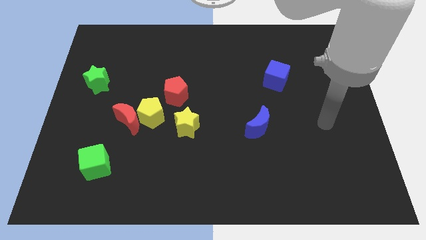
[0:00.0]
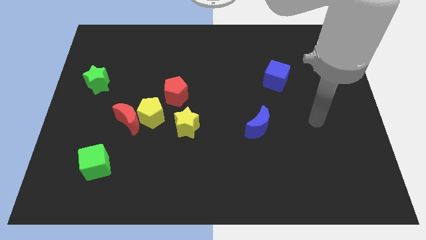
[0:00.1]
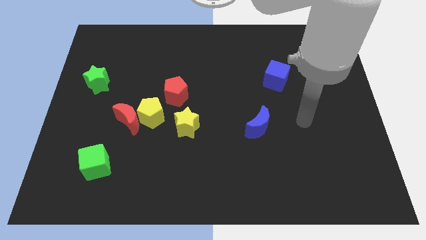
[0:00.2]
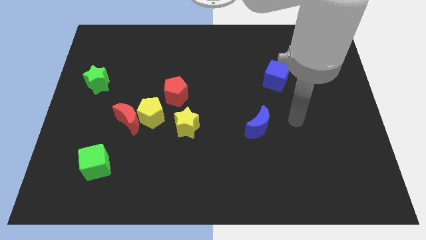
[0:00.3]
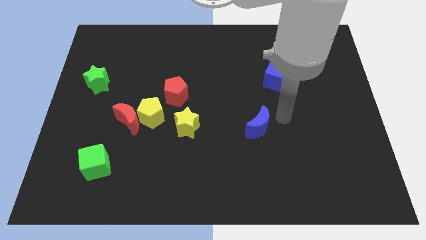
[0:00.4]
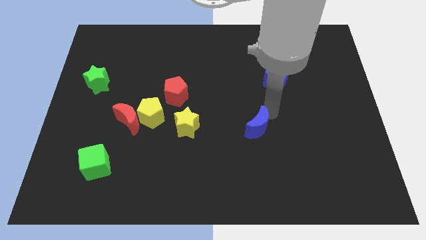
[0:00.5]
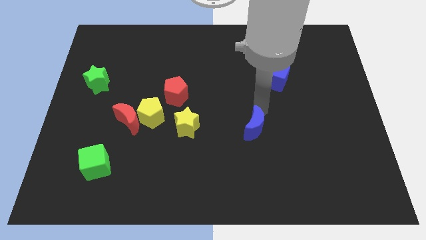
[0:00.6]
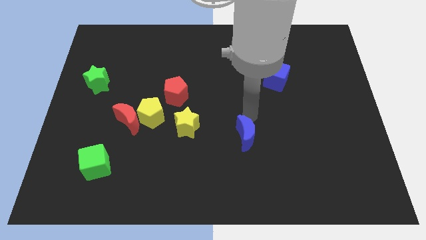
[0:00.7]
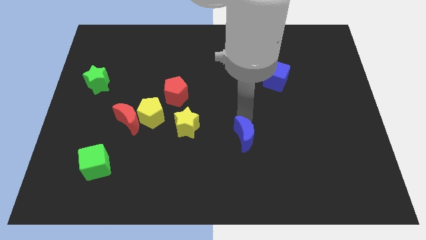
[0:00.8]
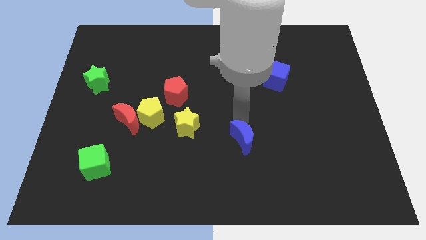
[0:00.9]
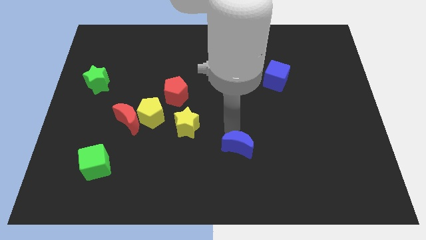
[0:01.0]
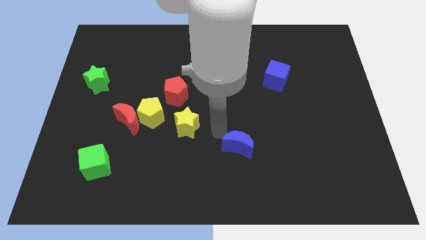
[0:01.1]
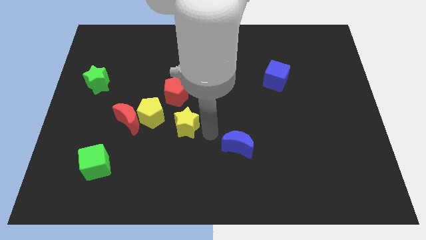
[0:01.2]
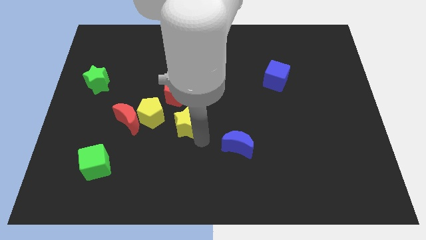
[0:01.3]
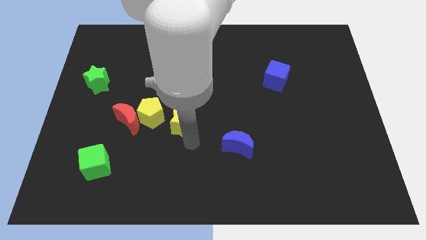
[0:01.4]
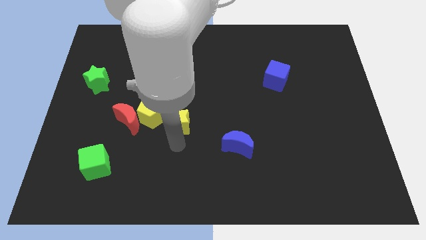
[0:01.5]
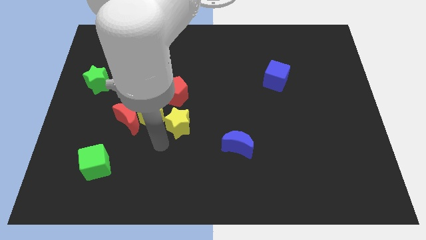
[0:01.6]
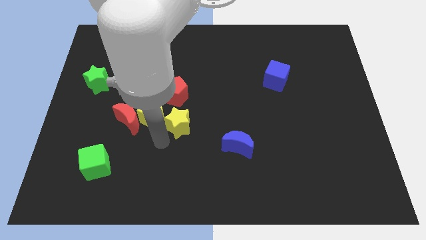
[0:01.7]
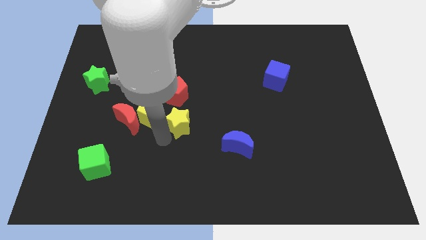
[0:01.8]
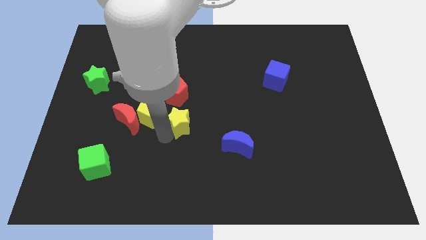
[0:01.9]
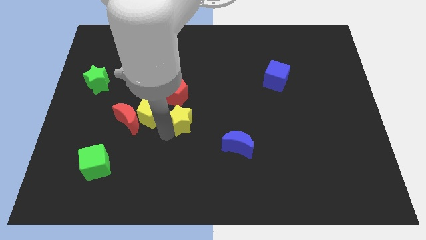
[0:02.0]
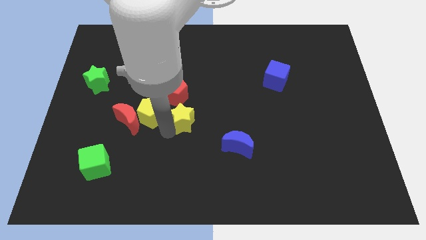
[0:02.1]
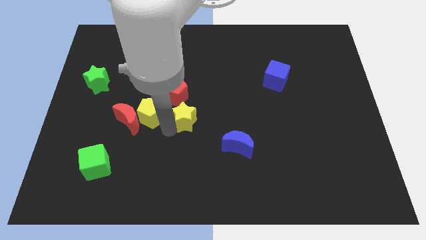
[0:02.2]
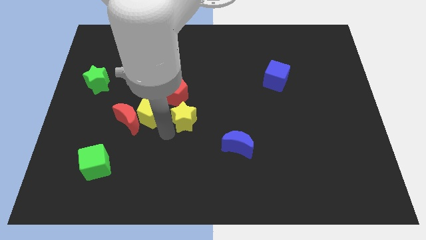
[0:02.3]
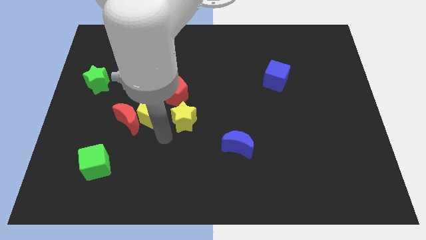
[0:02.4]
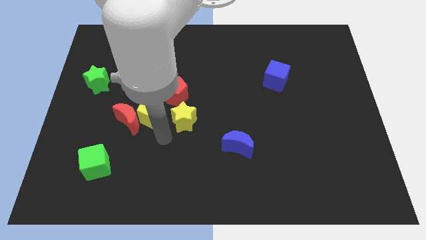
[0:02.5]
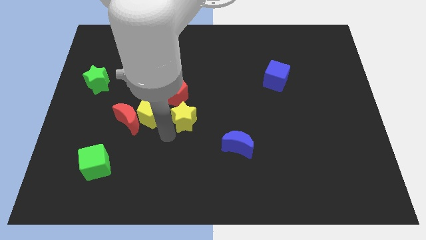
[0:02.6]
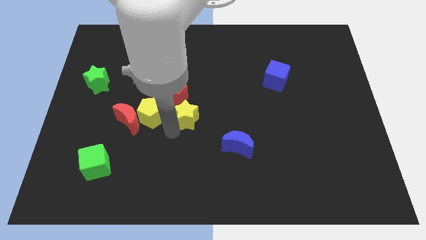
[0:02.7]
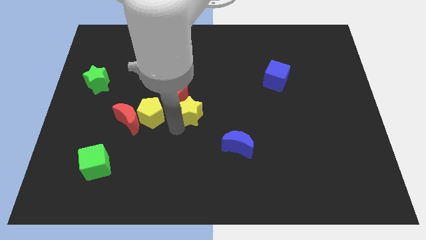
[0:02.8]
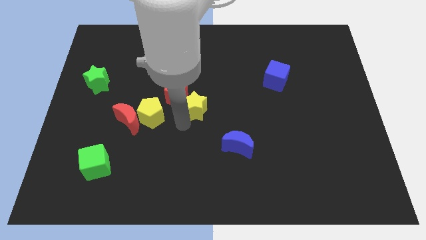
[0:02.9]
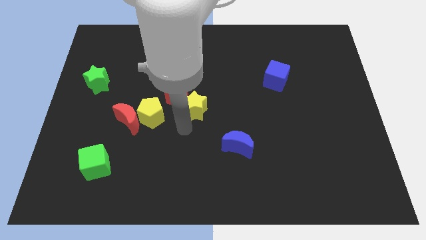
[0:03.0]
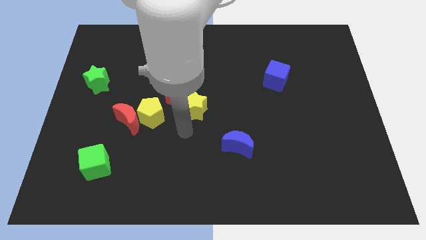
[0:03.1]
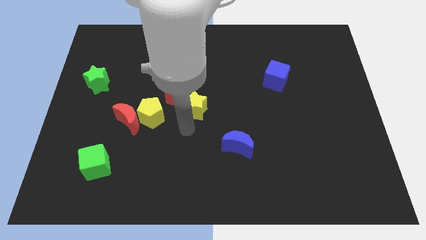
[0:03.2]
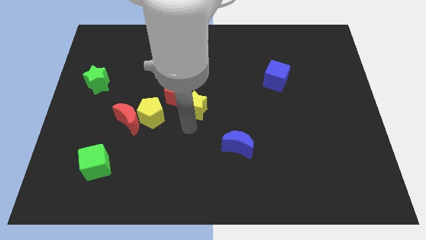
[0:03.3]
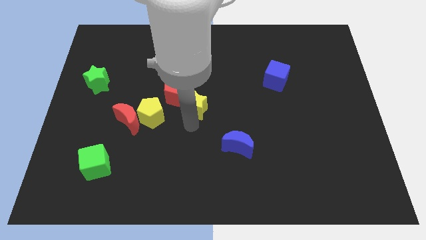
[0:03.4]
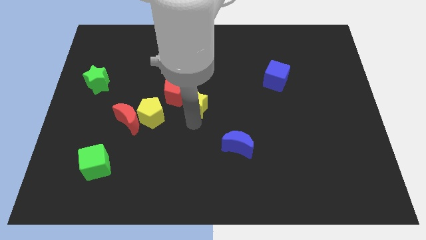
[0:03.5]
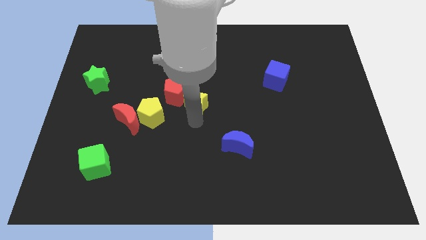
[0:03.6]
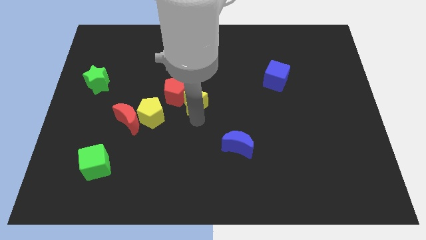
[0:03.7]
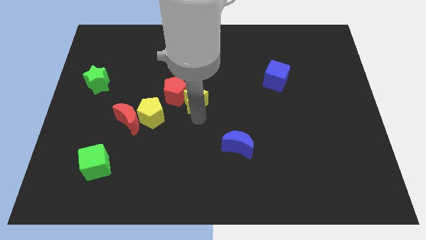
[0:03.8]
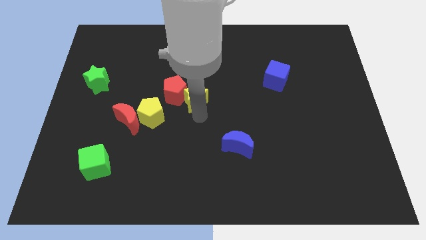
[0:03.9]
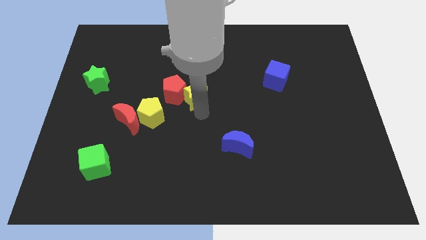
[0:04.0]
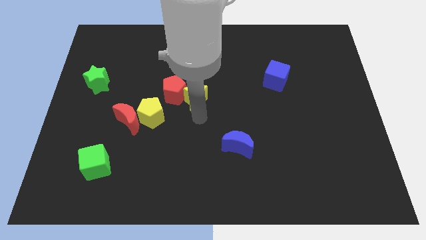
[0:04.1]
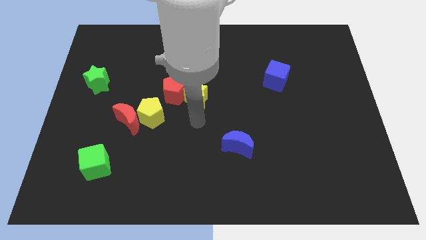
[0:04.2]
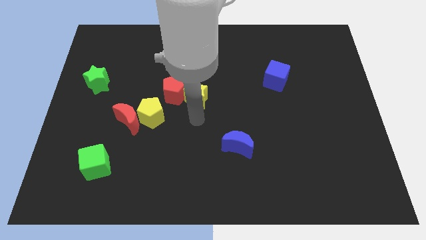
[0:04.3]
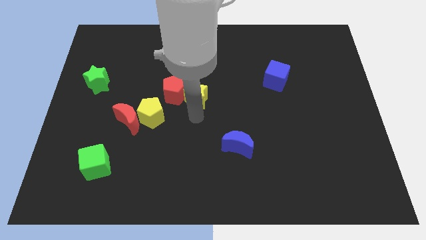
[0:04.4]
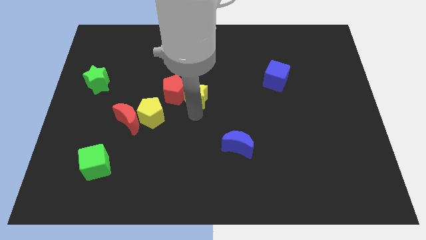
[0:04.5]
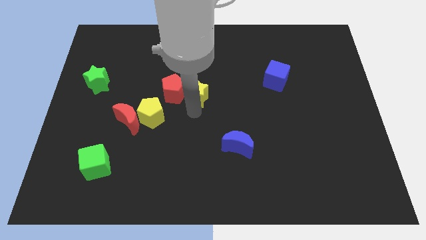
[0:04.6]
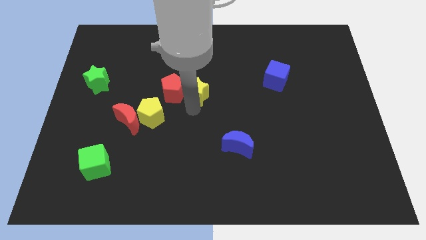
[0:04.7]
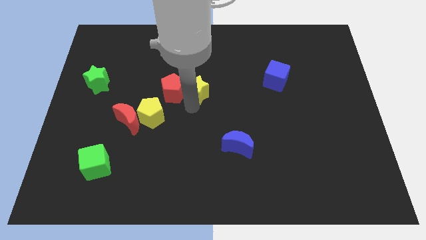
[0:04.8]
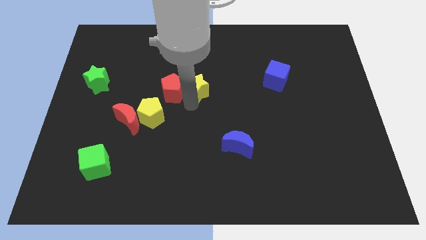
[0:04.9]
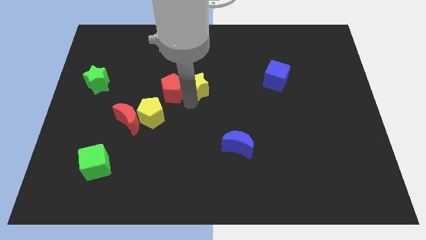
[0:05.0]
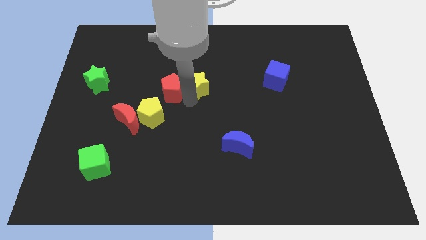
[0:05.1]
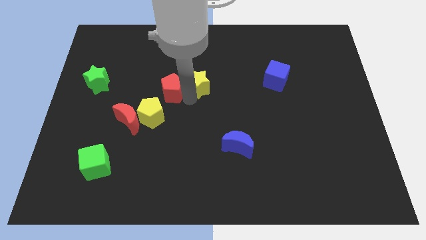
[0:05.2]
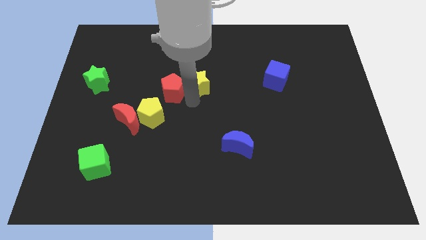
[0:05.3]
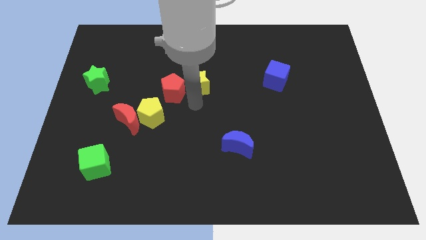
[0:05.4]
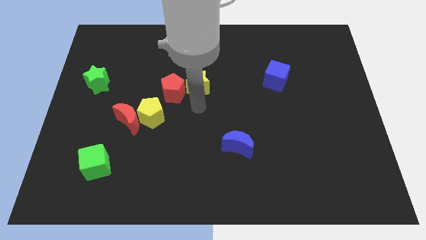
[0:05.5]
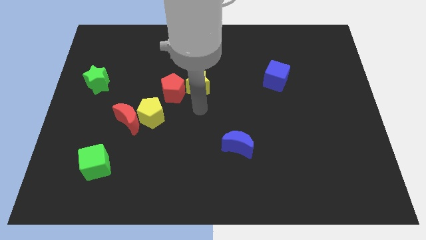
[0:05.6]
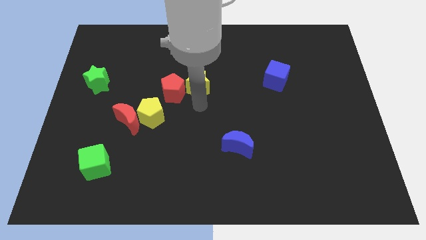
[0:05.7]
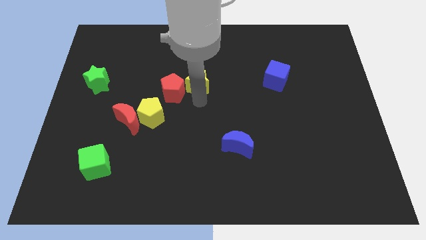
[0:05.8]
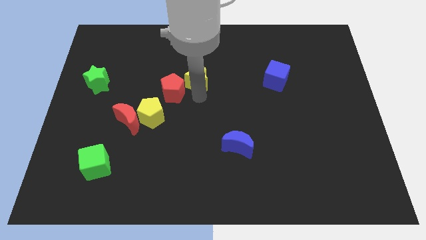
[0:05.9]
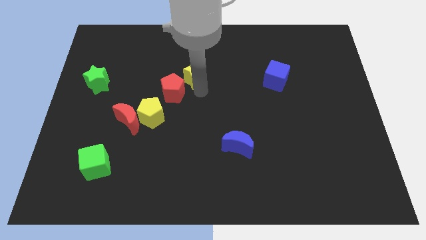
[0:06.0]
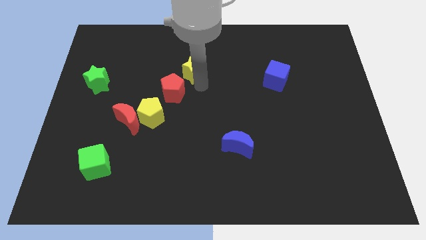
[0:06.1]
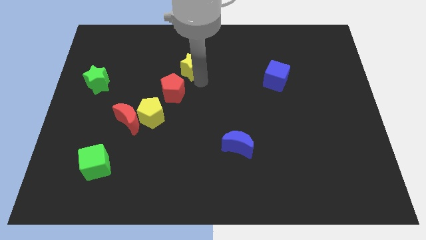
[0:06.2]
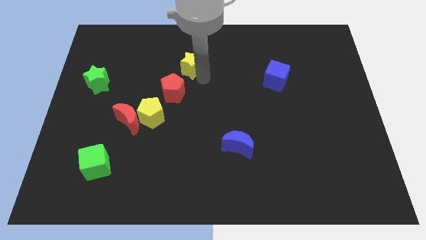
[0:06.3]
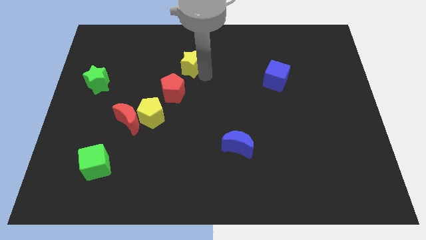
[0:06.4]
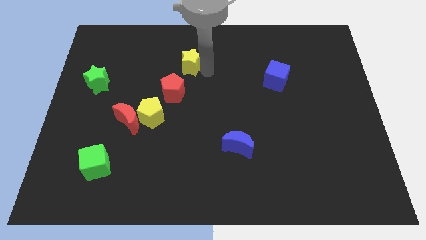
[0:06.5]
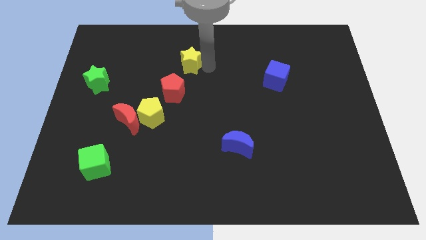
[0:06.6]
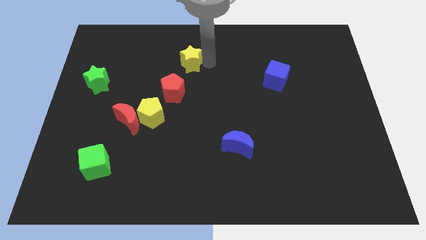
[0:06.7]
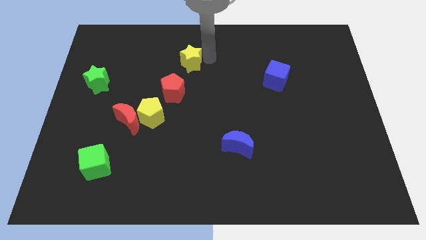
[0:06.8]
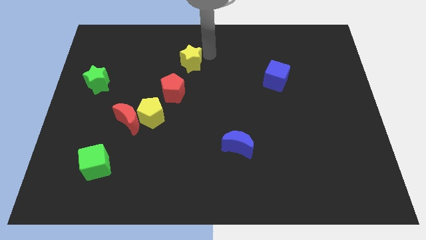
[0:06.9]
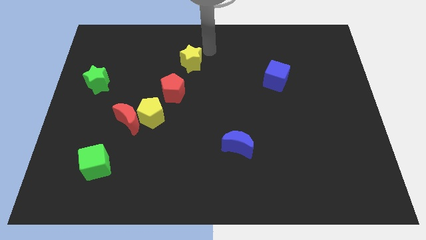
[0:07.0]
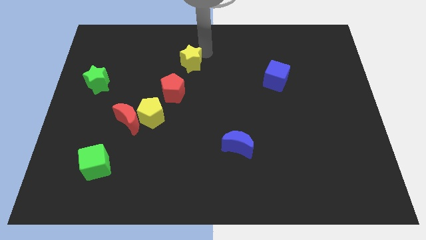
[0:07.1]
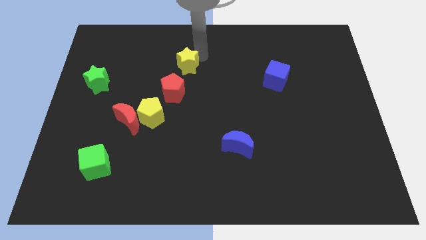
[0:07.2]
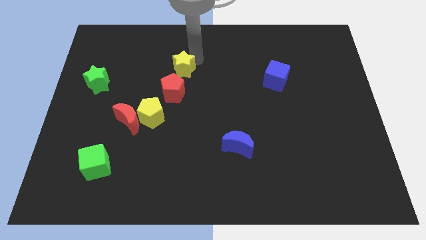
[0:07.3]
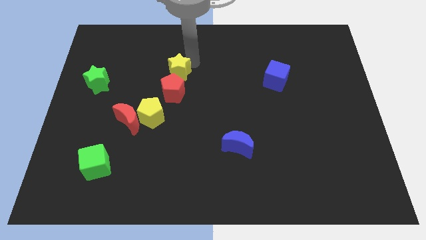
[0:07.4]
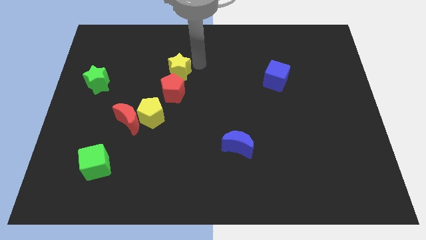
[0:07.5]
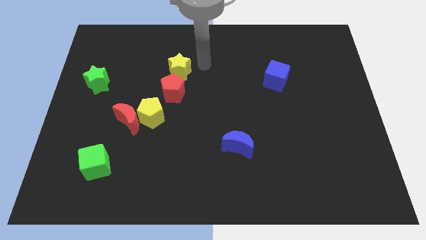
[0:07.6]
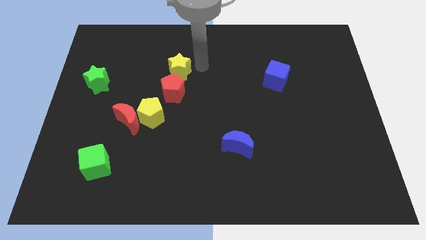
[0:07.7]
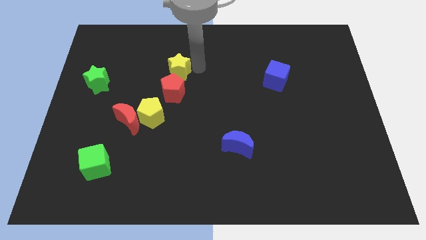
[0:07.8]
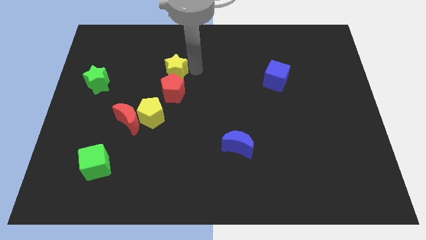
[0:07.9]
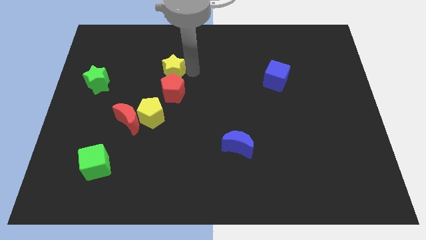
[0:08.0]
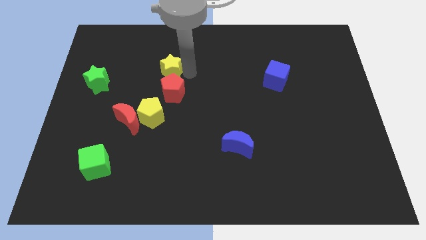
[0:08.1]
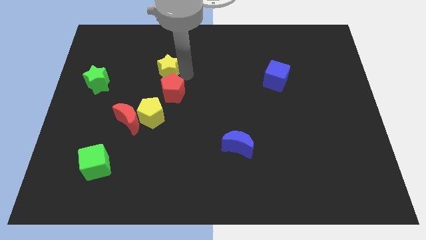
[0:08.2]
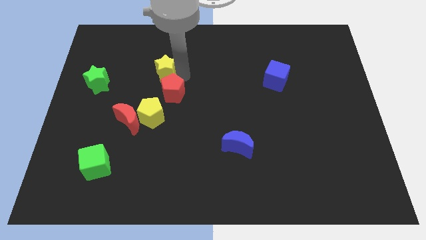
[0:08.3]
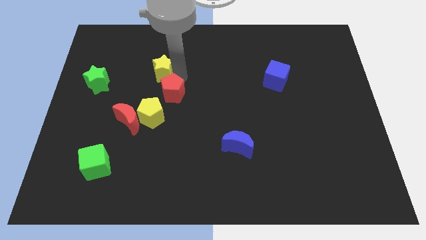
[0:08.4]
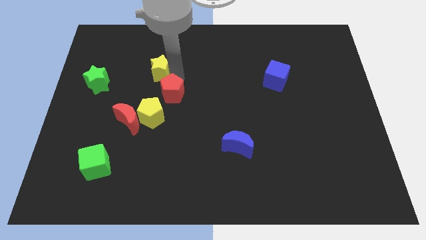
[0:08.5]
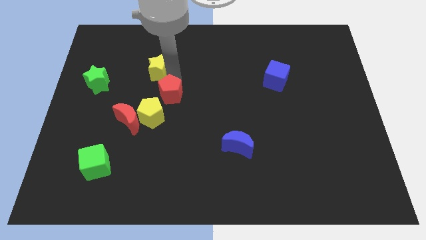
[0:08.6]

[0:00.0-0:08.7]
push the yellow star to the right side of the green star
